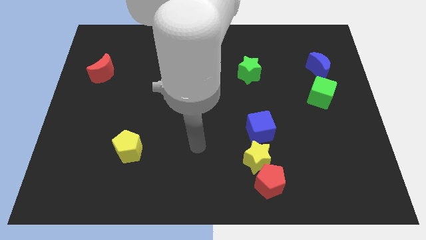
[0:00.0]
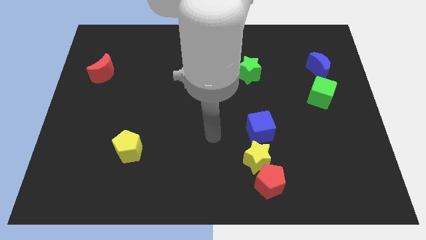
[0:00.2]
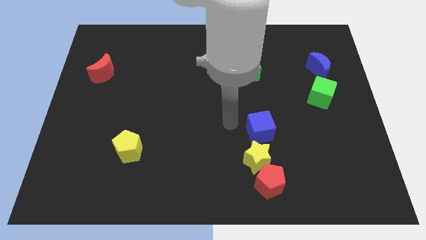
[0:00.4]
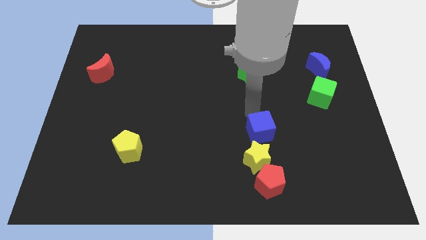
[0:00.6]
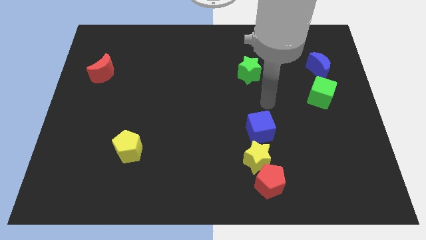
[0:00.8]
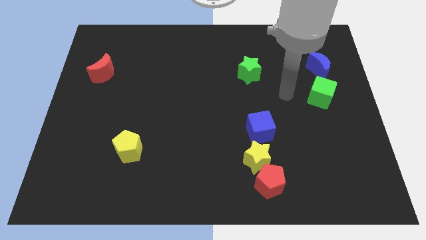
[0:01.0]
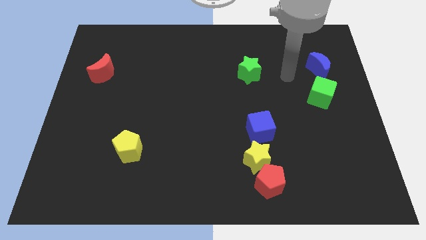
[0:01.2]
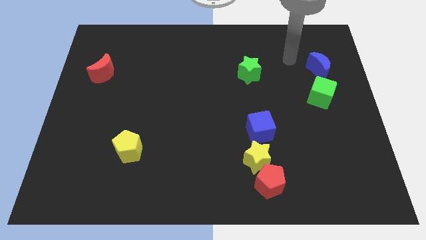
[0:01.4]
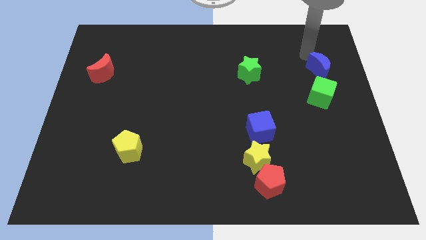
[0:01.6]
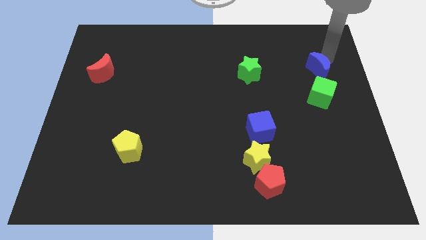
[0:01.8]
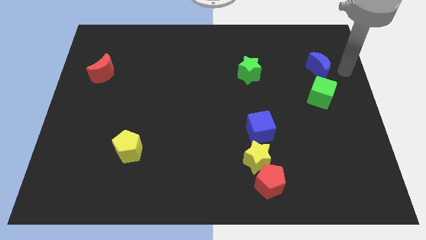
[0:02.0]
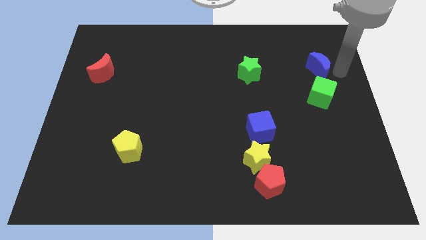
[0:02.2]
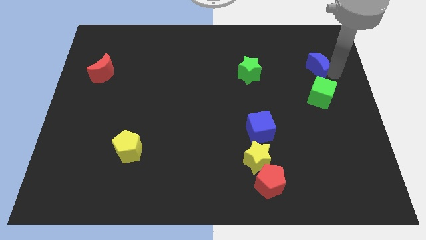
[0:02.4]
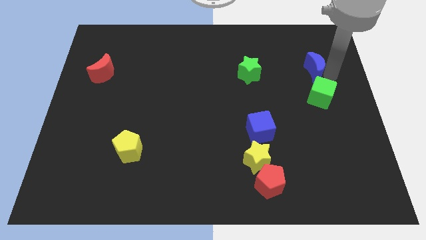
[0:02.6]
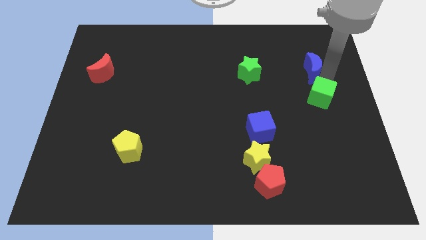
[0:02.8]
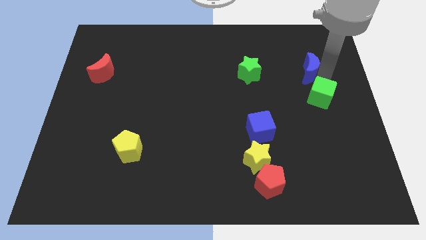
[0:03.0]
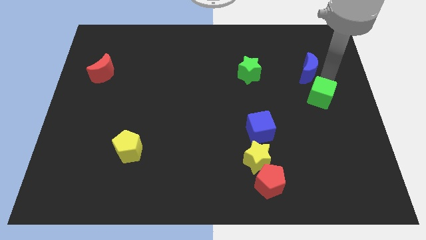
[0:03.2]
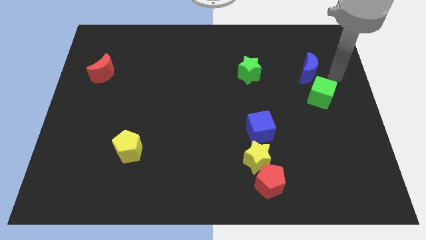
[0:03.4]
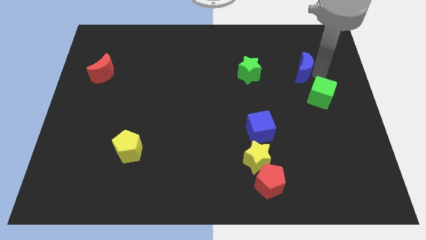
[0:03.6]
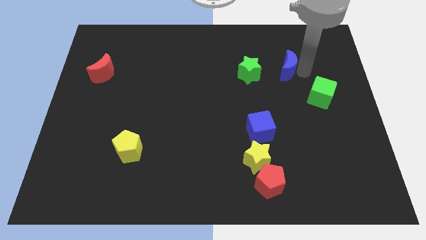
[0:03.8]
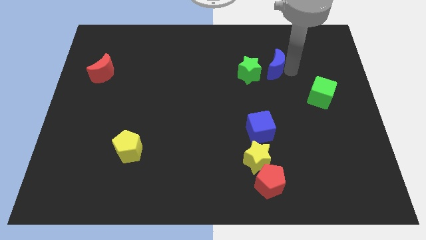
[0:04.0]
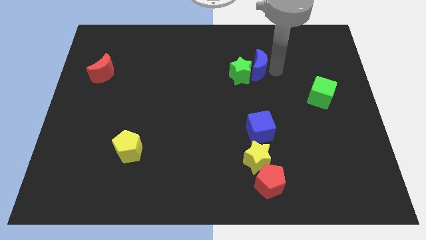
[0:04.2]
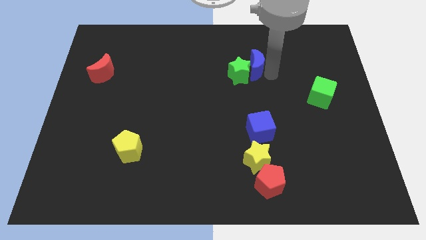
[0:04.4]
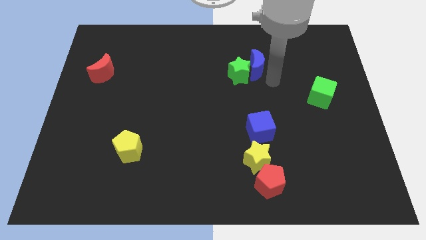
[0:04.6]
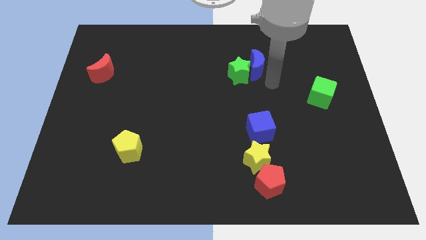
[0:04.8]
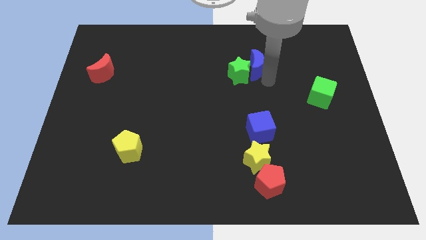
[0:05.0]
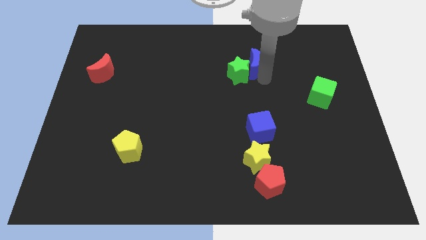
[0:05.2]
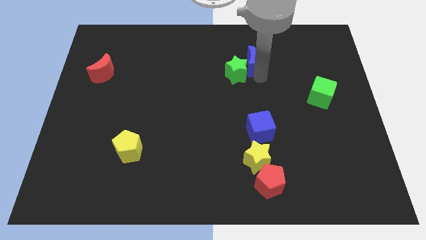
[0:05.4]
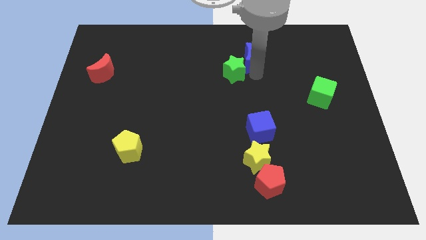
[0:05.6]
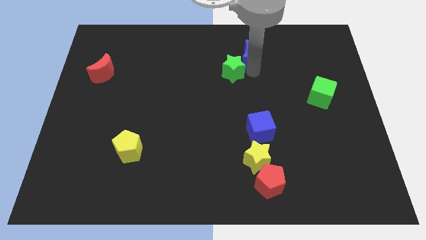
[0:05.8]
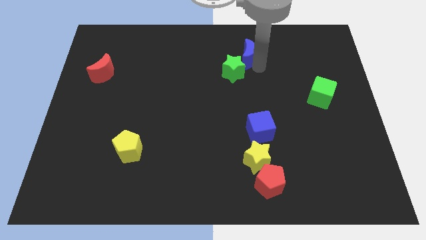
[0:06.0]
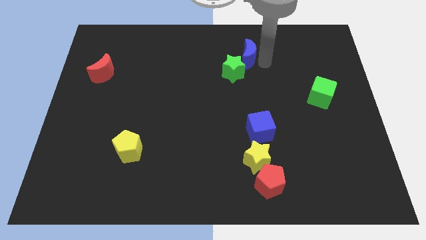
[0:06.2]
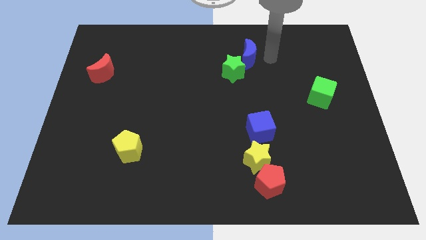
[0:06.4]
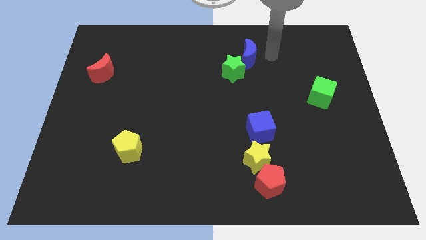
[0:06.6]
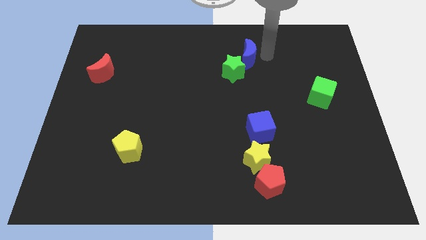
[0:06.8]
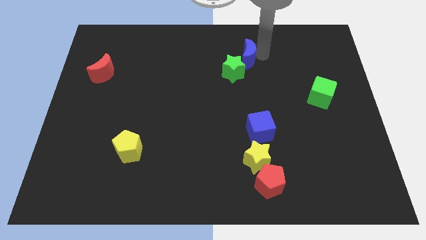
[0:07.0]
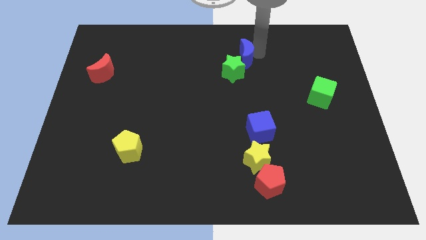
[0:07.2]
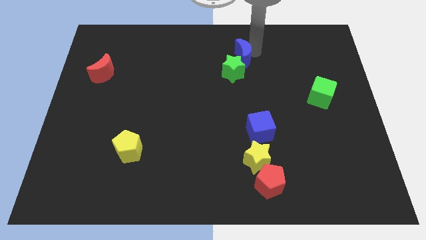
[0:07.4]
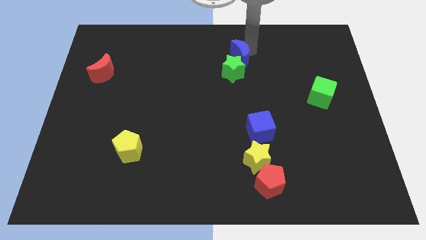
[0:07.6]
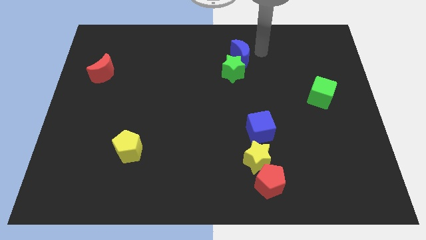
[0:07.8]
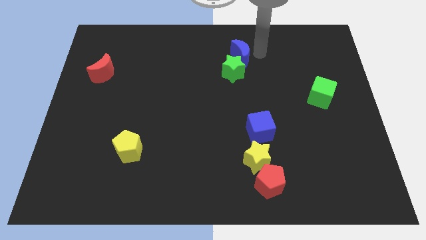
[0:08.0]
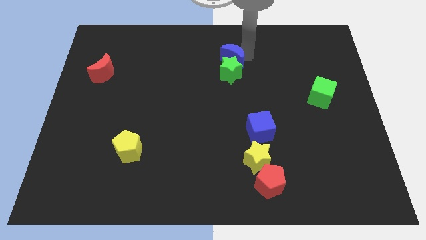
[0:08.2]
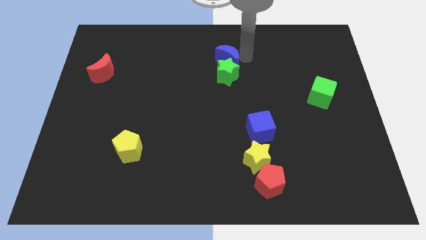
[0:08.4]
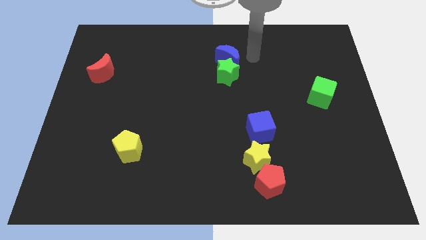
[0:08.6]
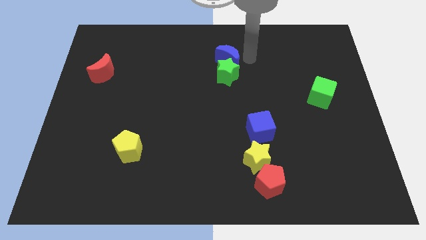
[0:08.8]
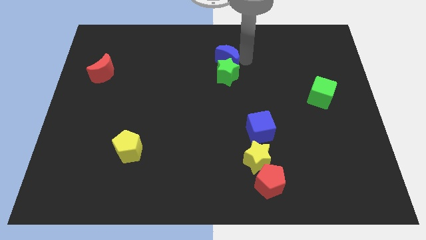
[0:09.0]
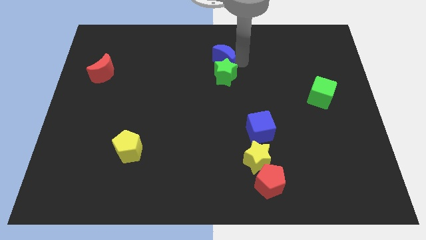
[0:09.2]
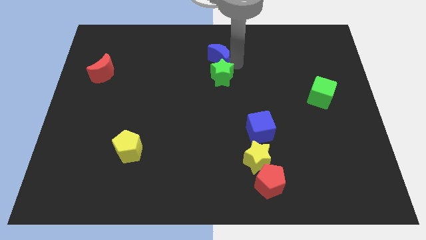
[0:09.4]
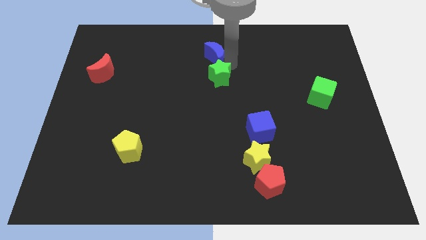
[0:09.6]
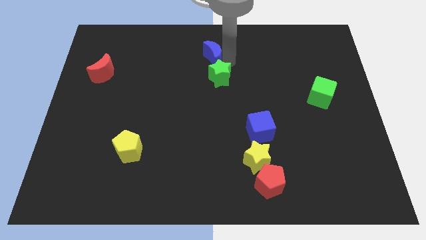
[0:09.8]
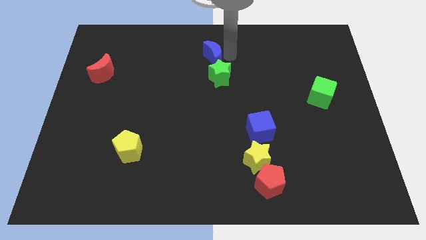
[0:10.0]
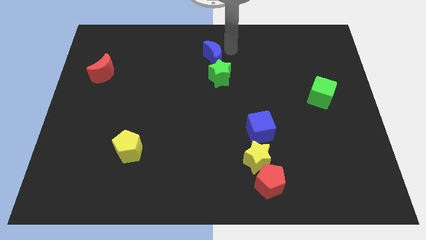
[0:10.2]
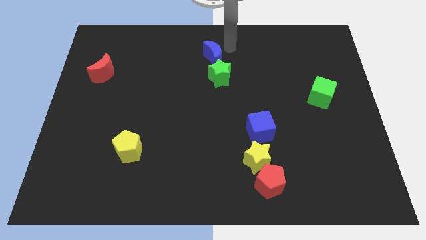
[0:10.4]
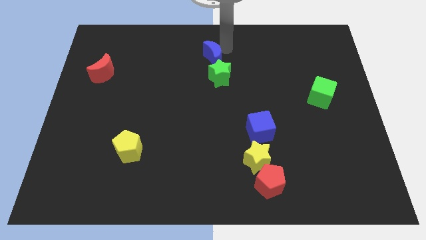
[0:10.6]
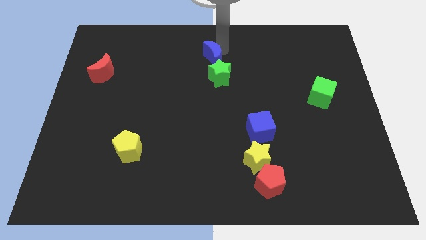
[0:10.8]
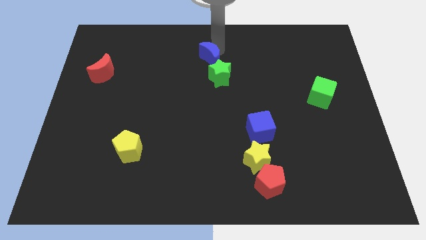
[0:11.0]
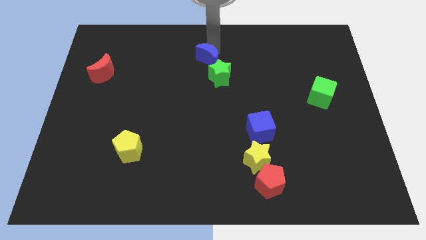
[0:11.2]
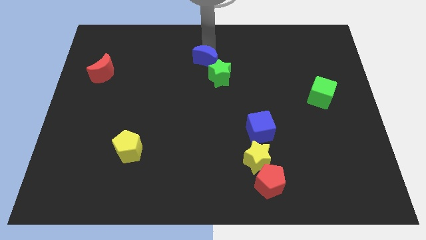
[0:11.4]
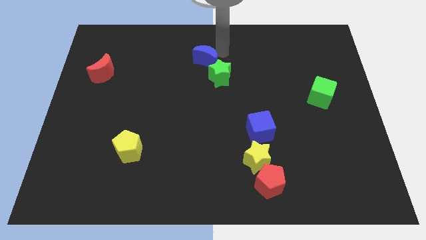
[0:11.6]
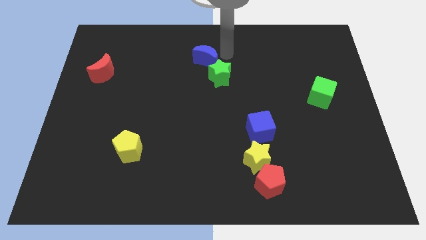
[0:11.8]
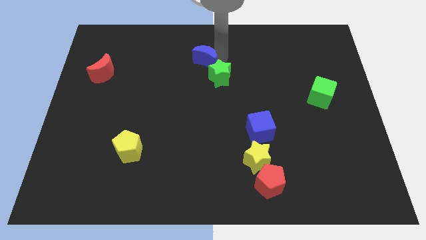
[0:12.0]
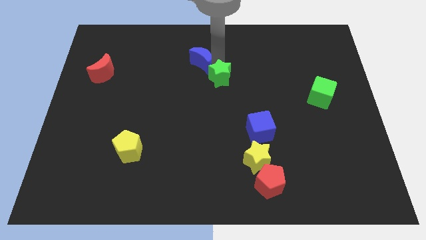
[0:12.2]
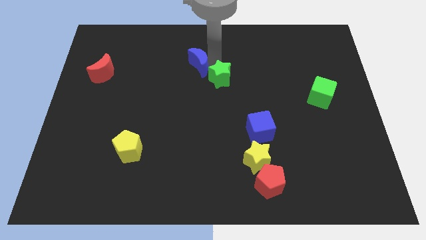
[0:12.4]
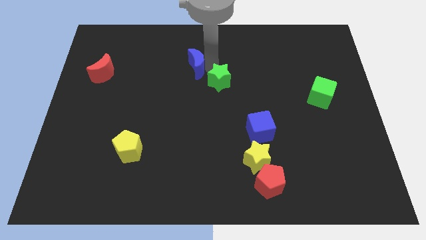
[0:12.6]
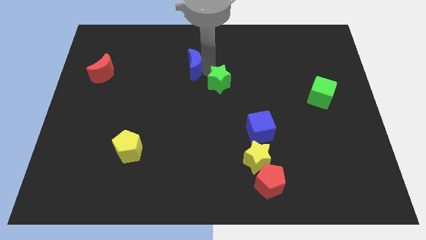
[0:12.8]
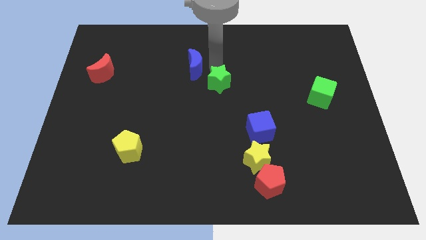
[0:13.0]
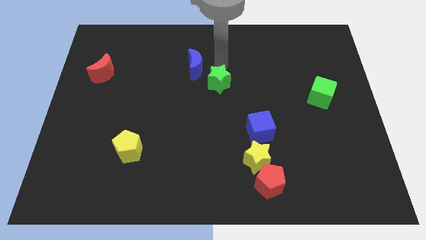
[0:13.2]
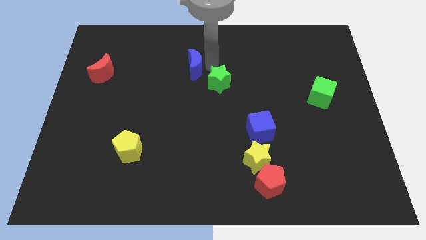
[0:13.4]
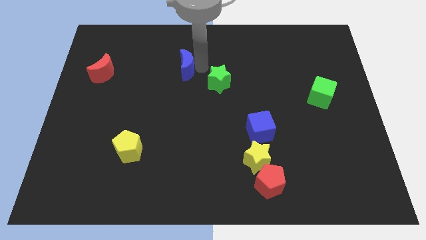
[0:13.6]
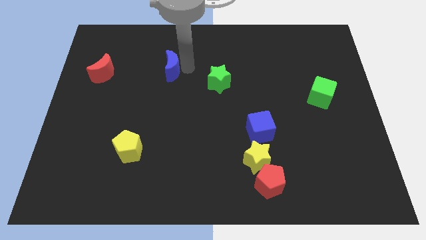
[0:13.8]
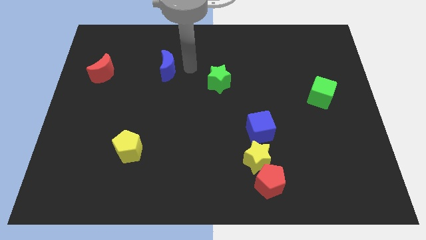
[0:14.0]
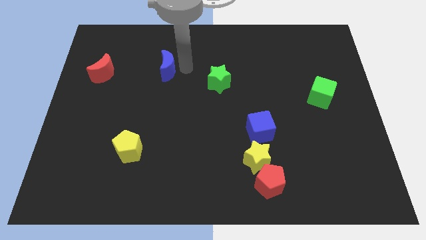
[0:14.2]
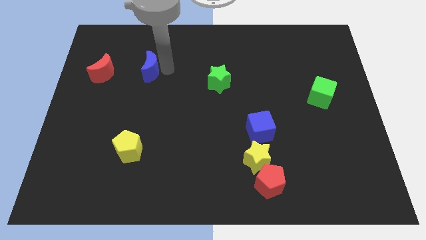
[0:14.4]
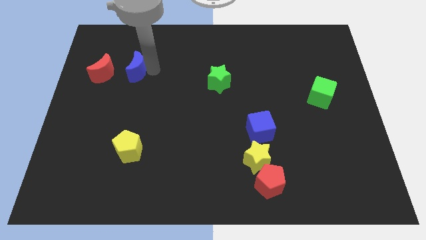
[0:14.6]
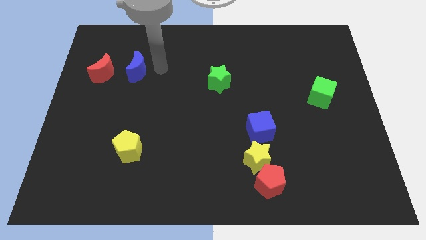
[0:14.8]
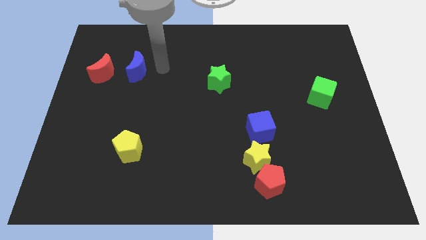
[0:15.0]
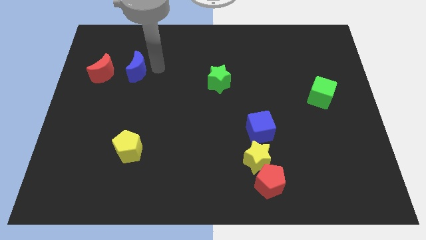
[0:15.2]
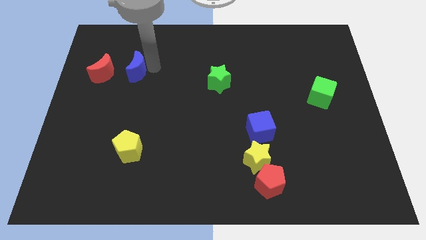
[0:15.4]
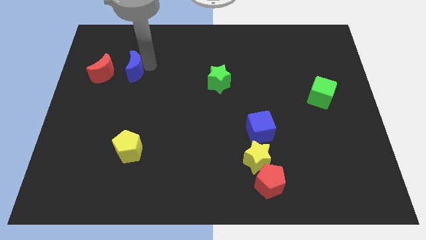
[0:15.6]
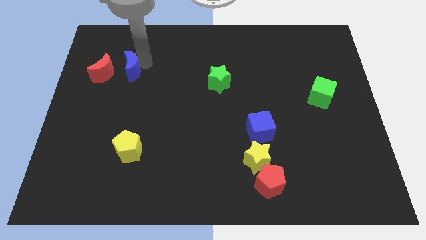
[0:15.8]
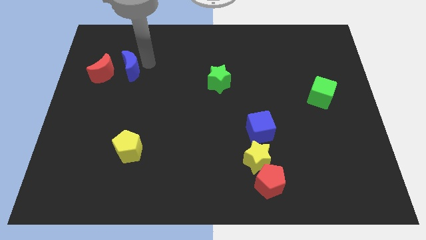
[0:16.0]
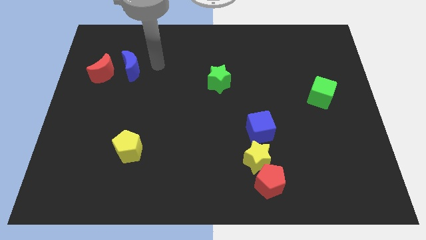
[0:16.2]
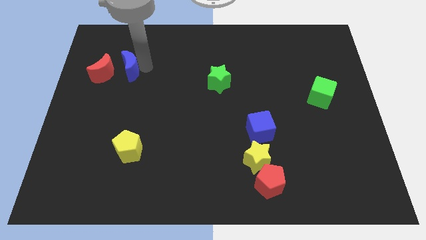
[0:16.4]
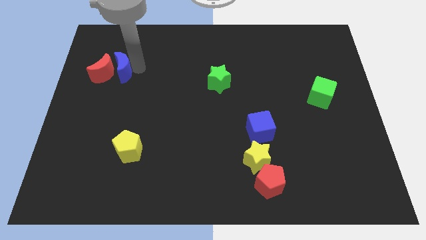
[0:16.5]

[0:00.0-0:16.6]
move the blue moon next to the red moon

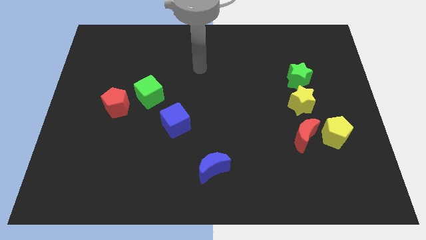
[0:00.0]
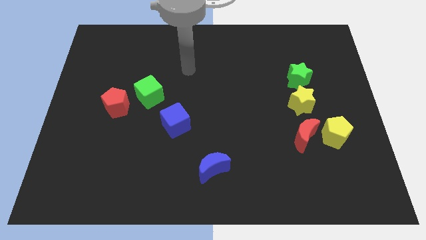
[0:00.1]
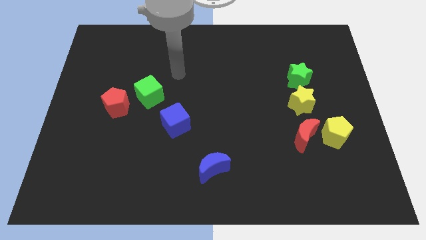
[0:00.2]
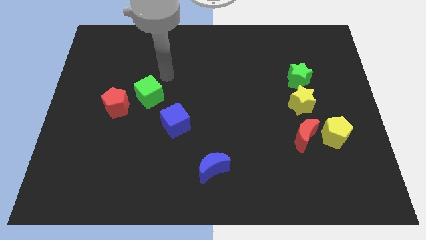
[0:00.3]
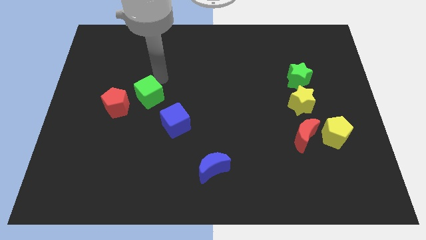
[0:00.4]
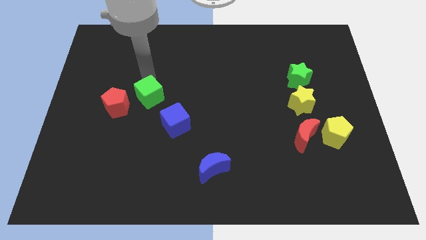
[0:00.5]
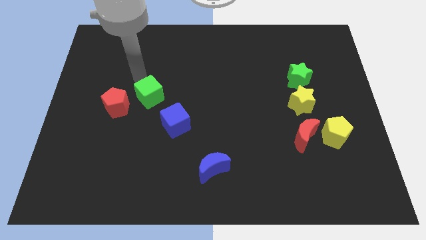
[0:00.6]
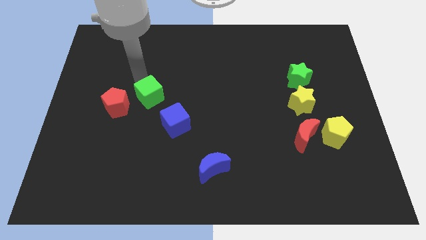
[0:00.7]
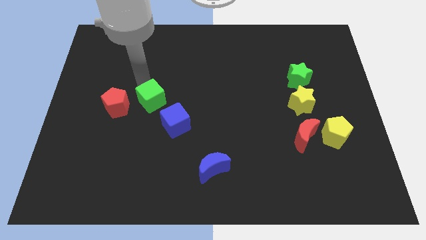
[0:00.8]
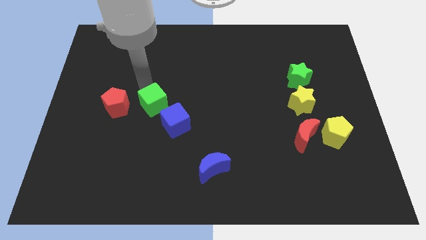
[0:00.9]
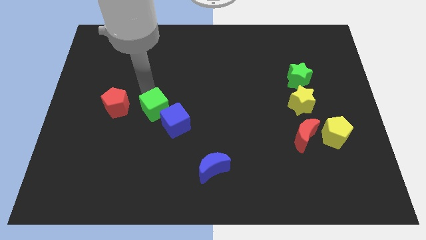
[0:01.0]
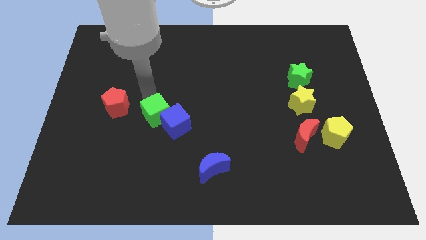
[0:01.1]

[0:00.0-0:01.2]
slide the green cube next to the blue cube
